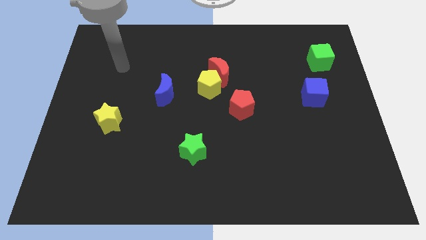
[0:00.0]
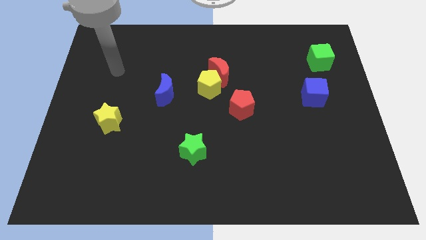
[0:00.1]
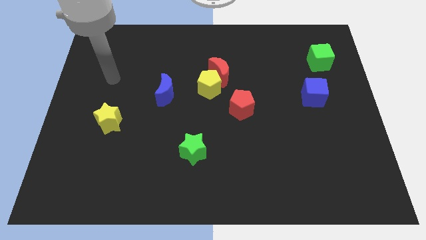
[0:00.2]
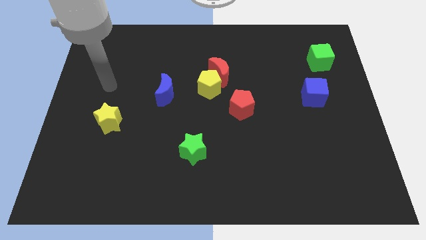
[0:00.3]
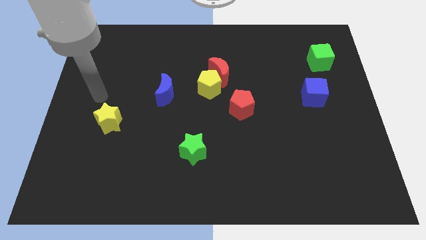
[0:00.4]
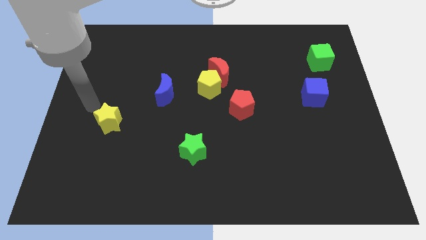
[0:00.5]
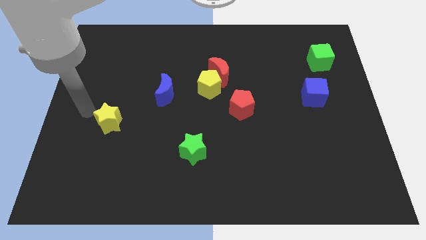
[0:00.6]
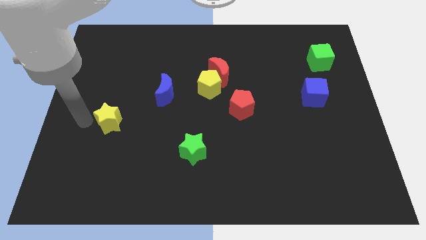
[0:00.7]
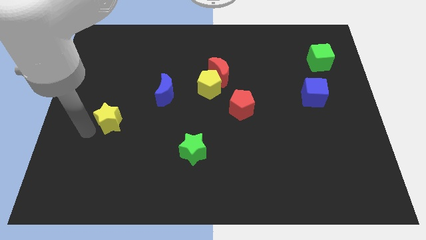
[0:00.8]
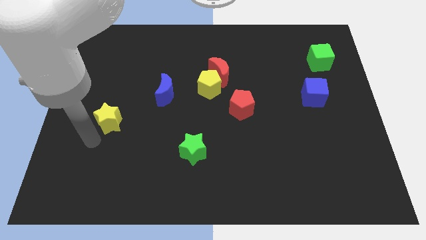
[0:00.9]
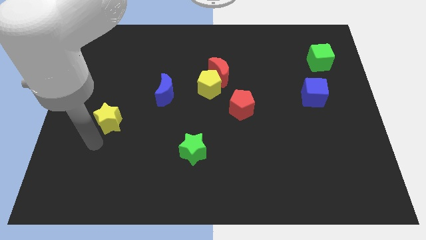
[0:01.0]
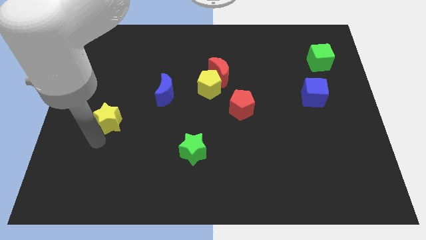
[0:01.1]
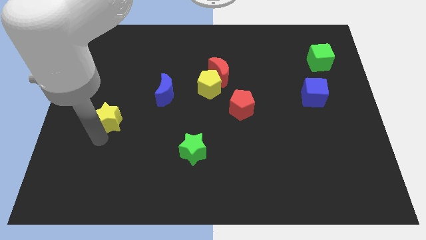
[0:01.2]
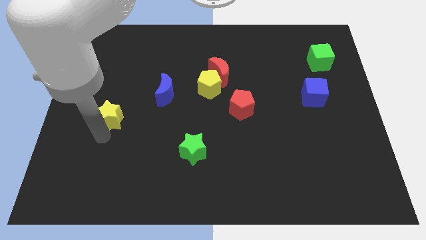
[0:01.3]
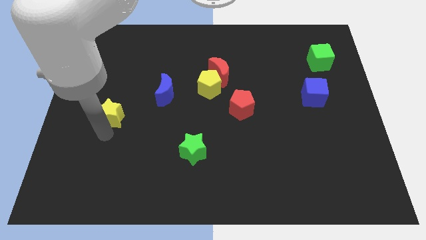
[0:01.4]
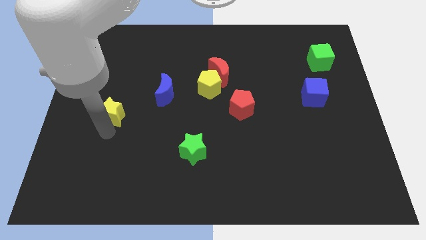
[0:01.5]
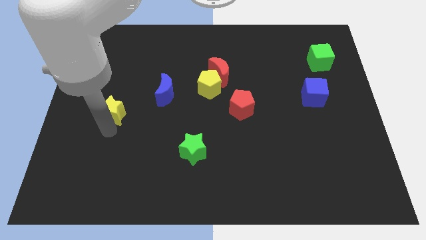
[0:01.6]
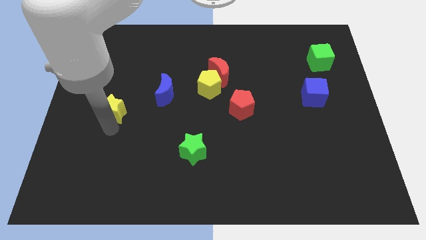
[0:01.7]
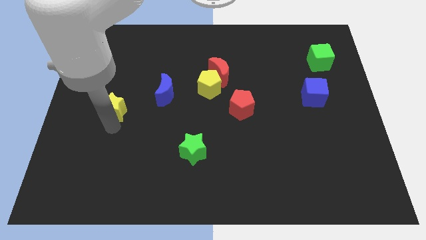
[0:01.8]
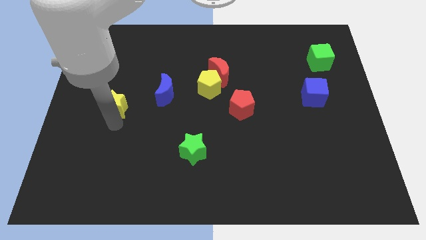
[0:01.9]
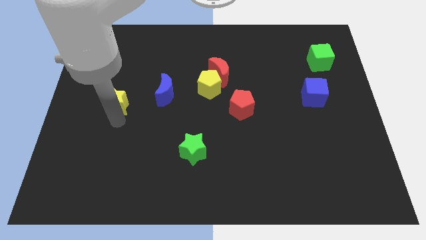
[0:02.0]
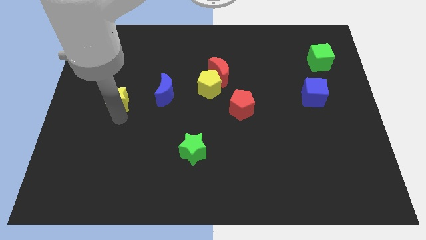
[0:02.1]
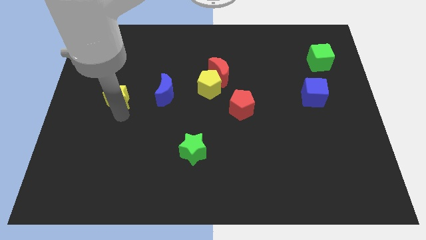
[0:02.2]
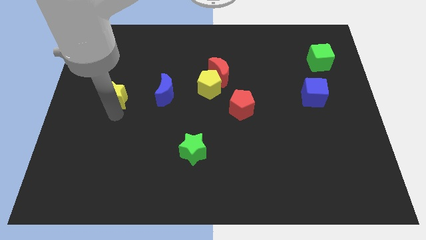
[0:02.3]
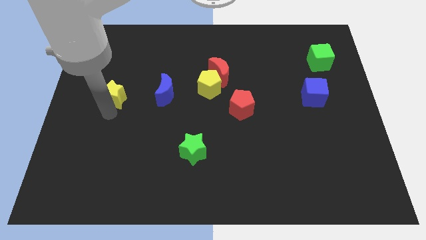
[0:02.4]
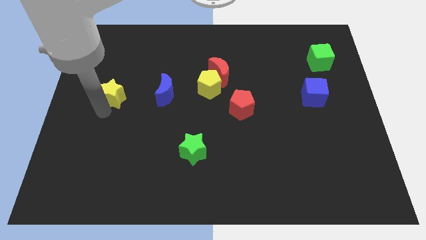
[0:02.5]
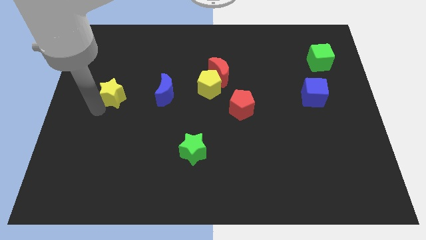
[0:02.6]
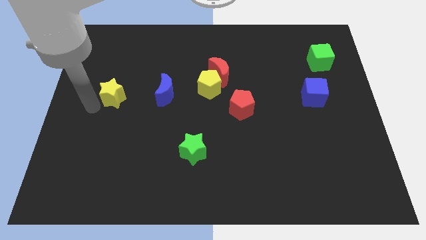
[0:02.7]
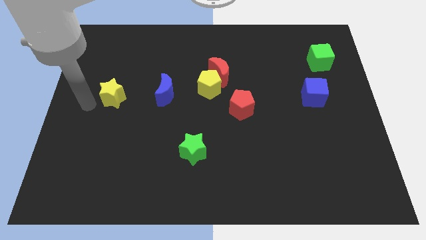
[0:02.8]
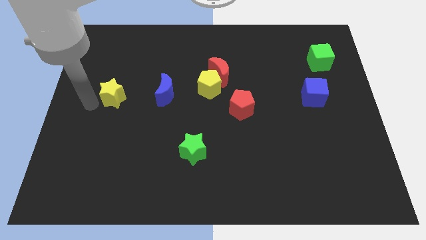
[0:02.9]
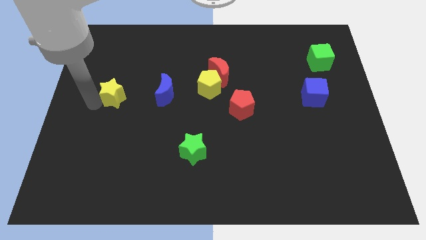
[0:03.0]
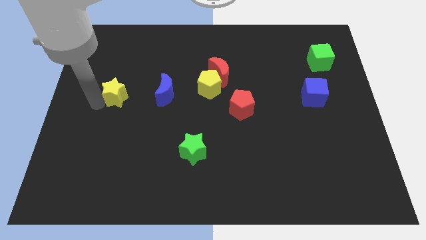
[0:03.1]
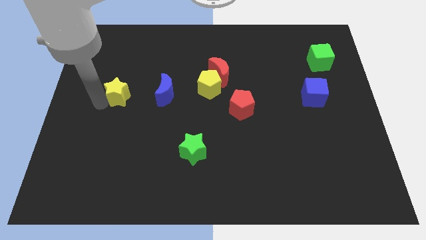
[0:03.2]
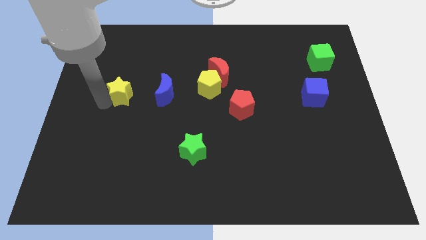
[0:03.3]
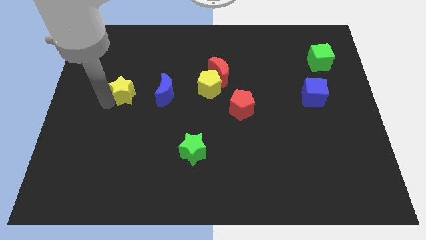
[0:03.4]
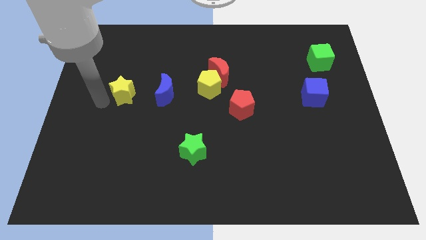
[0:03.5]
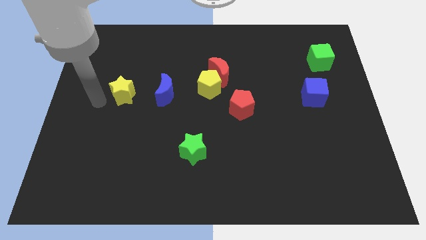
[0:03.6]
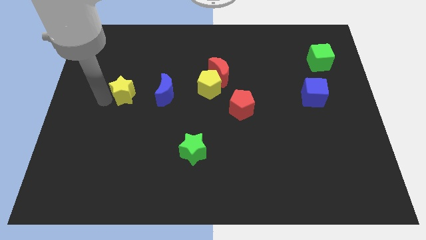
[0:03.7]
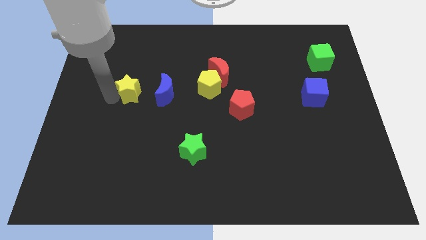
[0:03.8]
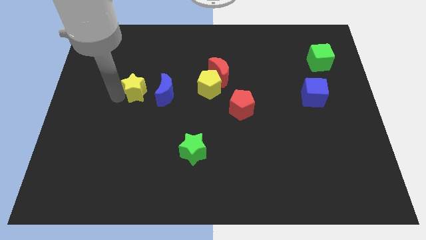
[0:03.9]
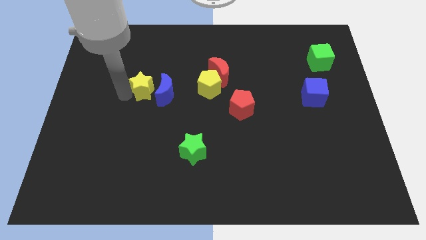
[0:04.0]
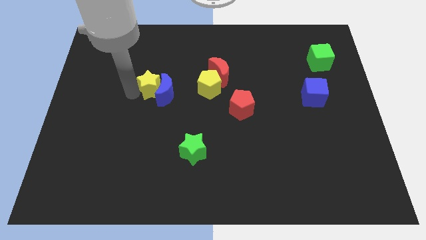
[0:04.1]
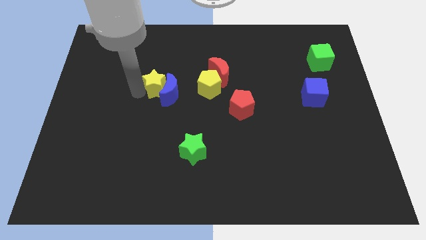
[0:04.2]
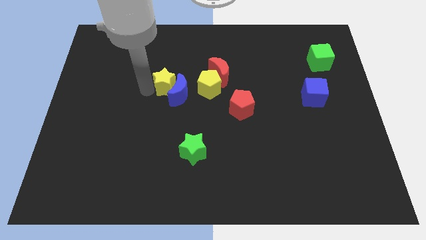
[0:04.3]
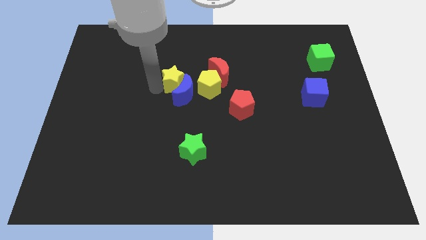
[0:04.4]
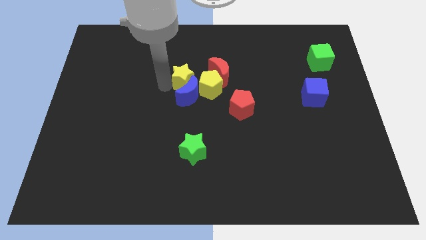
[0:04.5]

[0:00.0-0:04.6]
slide the yellow star to the top right side of the blue moon

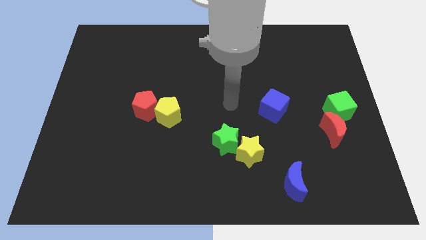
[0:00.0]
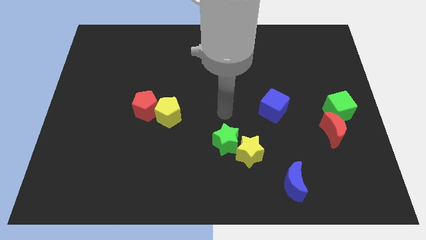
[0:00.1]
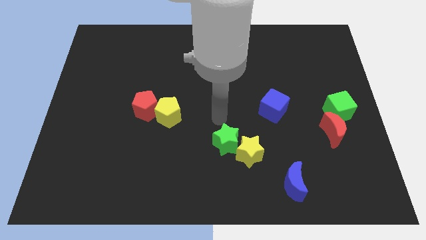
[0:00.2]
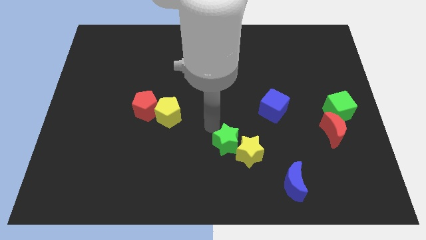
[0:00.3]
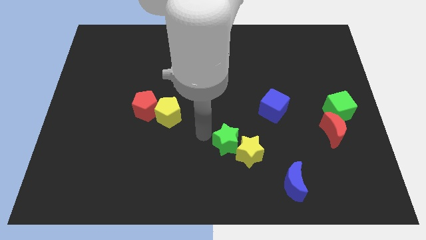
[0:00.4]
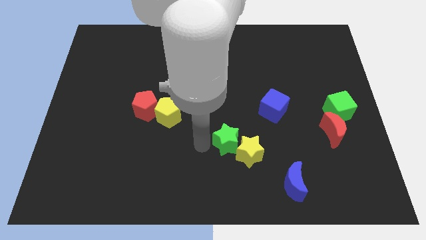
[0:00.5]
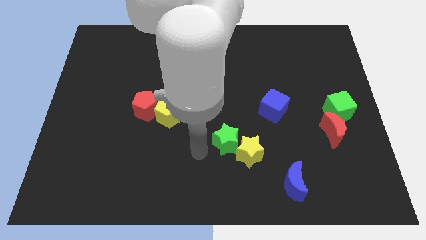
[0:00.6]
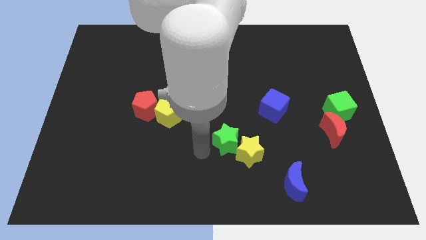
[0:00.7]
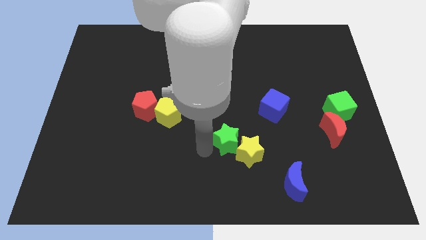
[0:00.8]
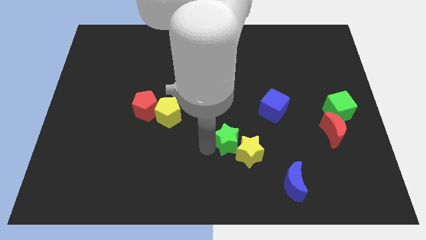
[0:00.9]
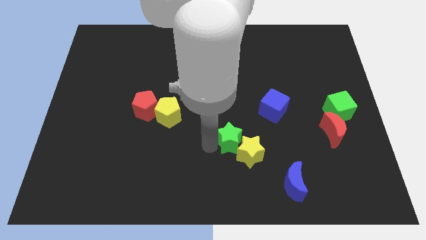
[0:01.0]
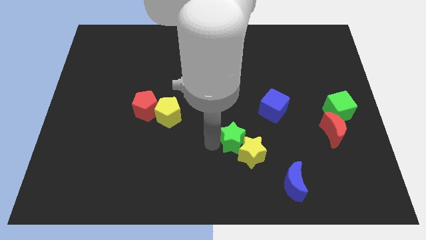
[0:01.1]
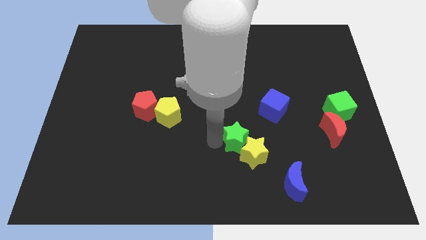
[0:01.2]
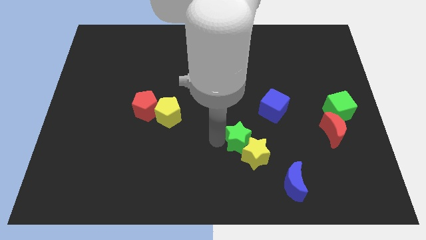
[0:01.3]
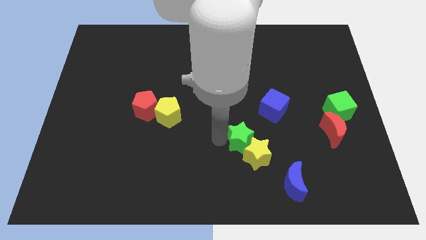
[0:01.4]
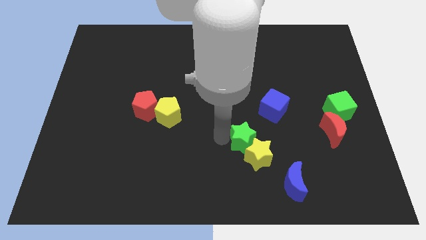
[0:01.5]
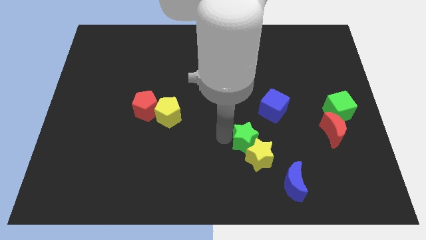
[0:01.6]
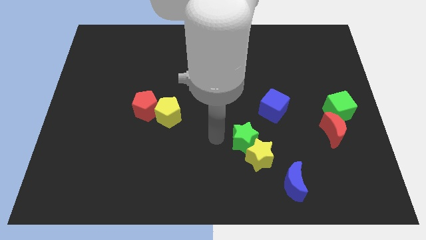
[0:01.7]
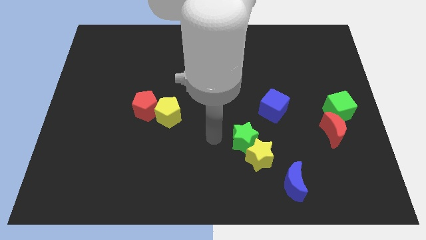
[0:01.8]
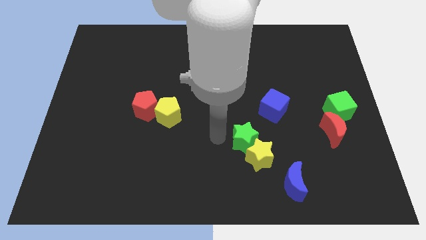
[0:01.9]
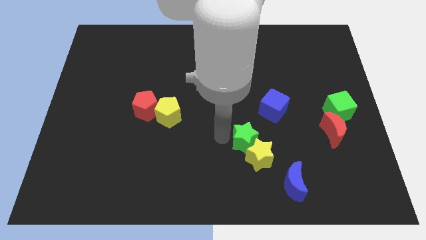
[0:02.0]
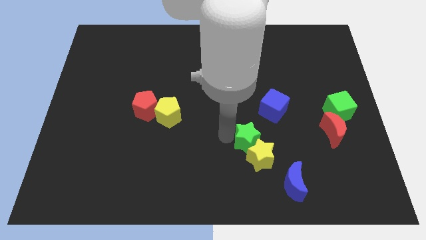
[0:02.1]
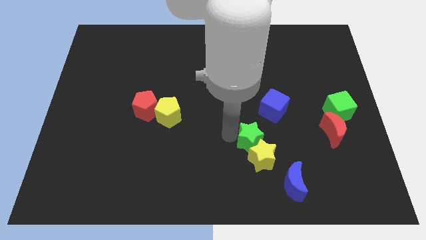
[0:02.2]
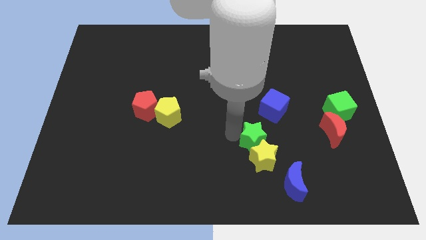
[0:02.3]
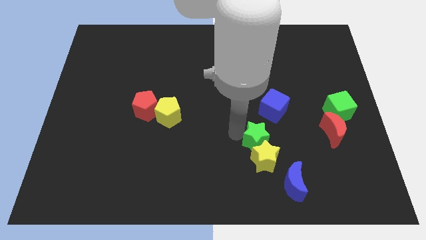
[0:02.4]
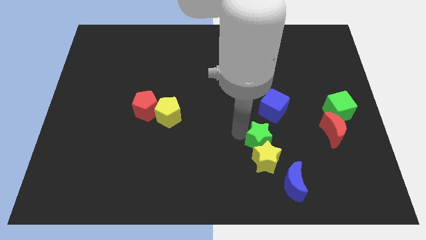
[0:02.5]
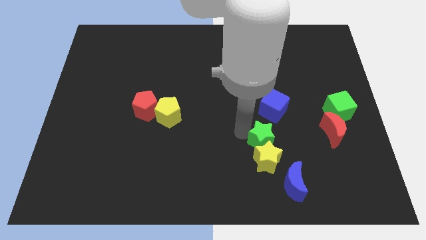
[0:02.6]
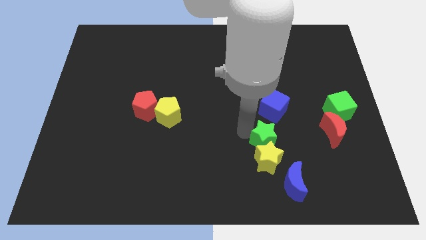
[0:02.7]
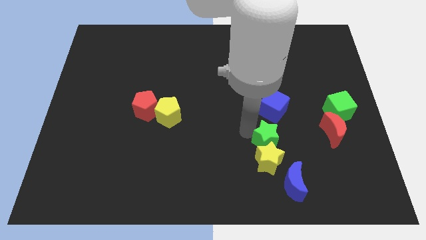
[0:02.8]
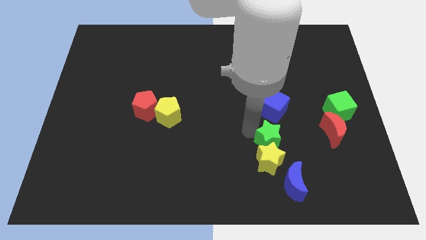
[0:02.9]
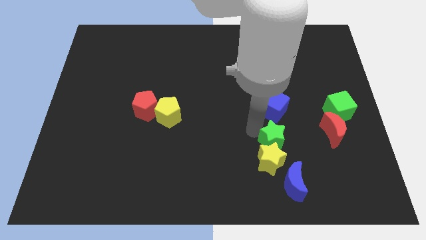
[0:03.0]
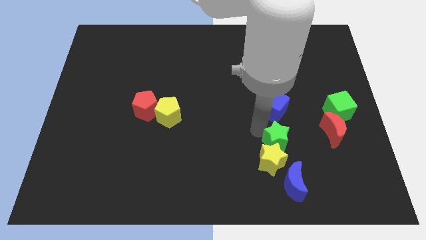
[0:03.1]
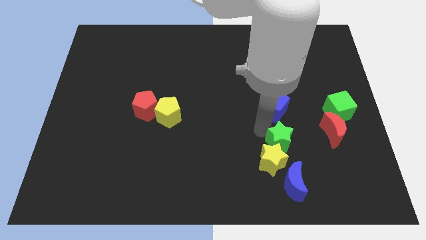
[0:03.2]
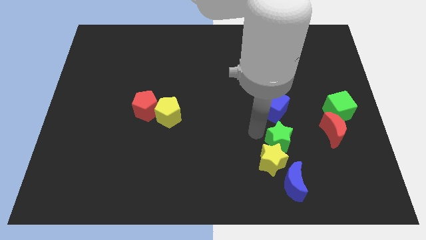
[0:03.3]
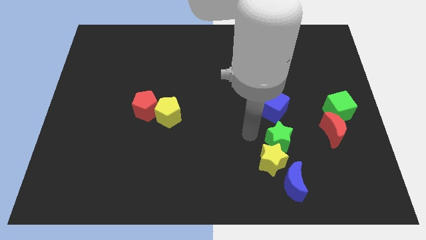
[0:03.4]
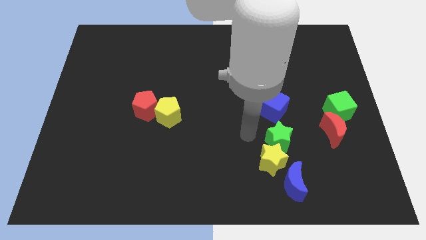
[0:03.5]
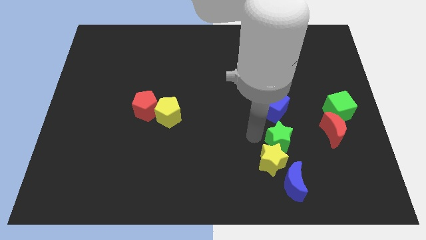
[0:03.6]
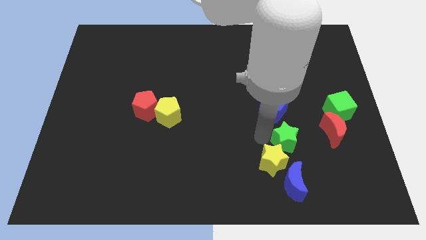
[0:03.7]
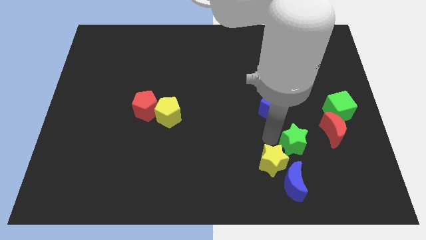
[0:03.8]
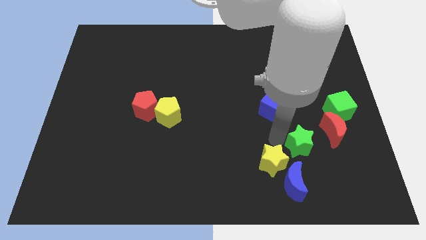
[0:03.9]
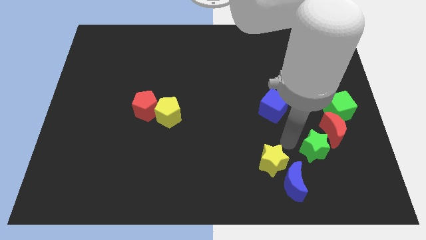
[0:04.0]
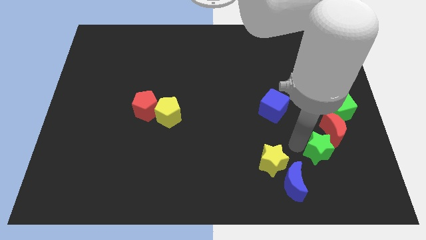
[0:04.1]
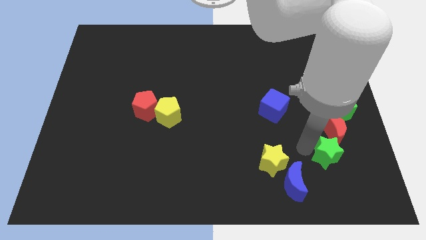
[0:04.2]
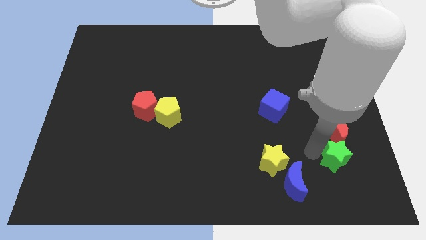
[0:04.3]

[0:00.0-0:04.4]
move the green star to the bottom of the green cube
